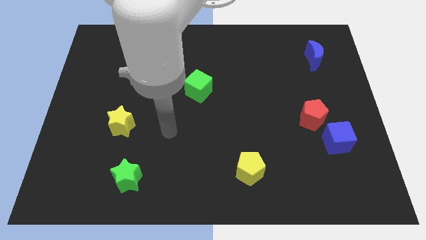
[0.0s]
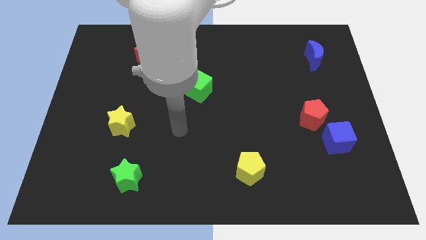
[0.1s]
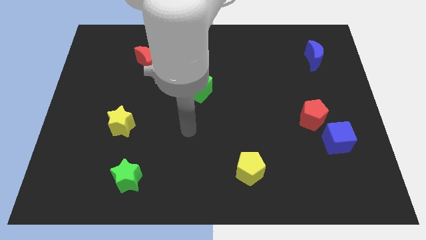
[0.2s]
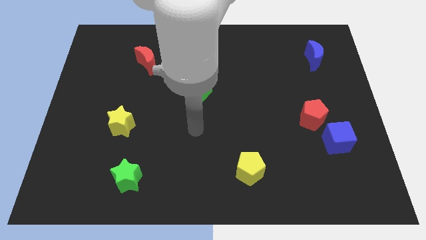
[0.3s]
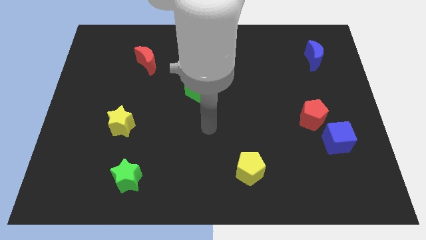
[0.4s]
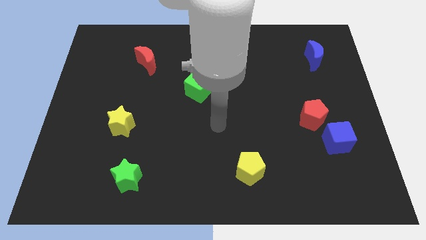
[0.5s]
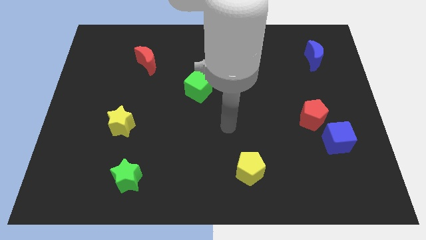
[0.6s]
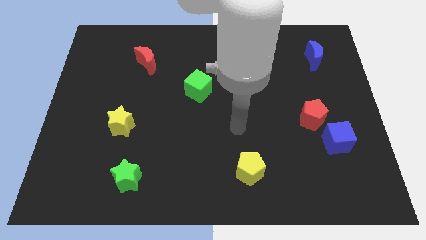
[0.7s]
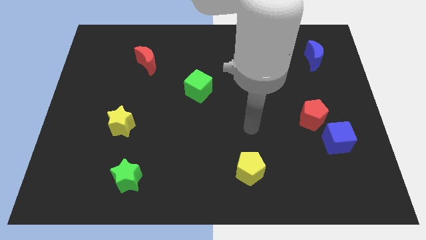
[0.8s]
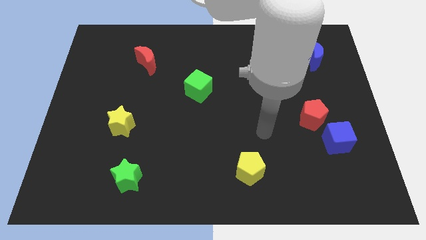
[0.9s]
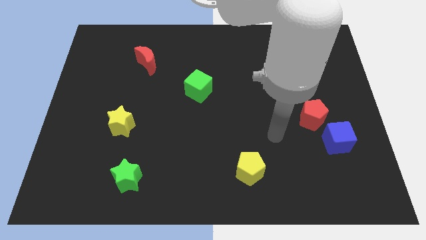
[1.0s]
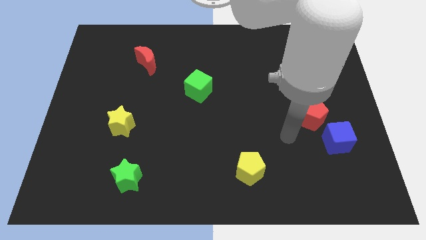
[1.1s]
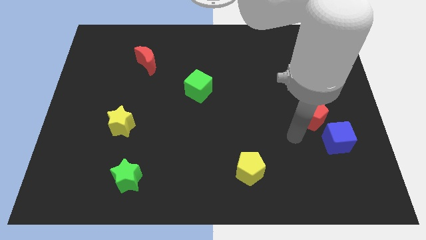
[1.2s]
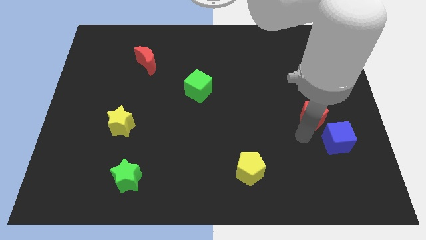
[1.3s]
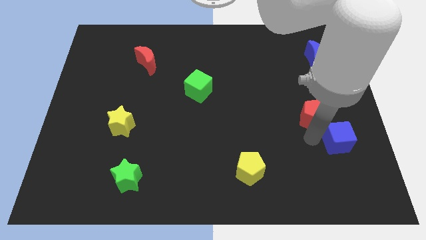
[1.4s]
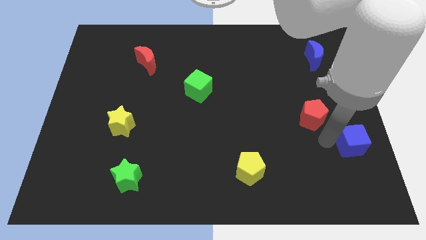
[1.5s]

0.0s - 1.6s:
pull the red pentagon apart from the blue cube

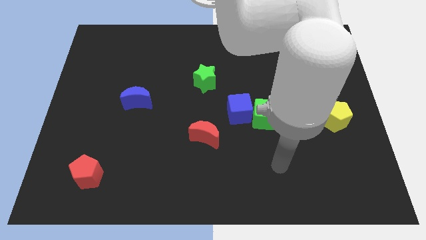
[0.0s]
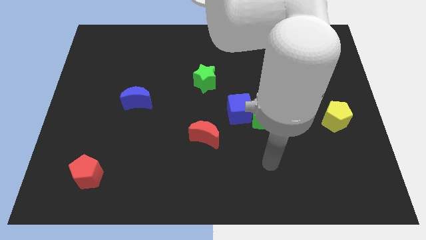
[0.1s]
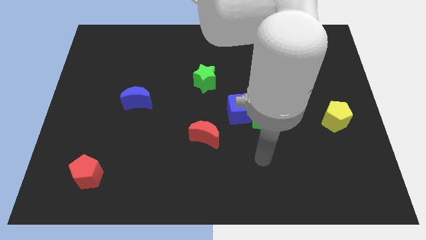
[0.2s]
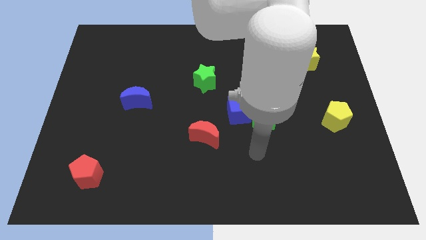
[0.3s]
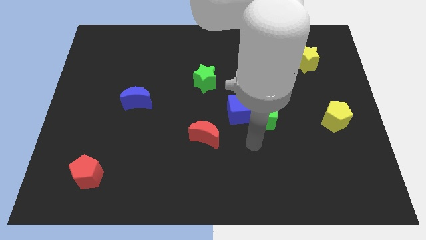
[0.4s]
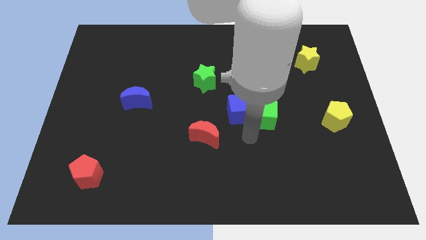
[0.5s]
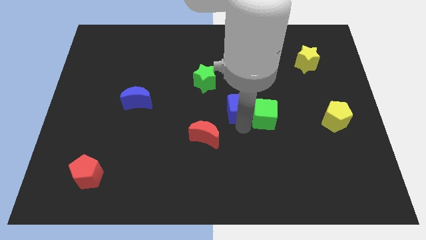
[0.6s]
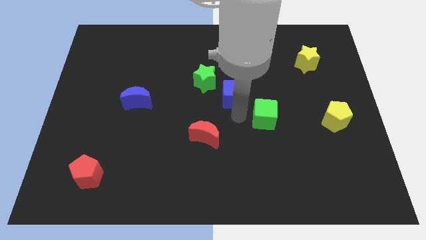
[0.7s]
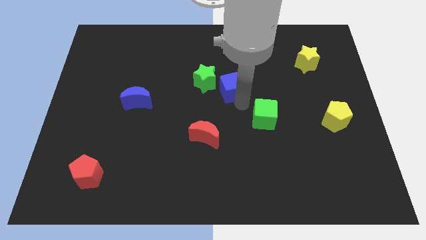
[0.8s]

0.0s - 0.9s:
separate the green cube from the blue cube

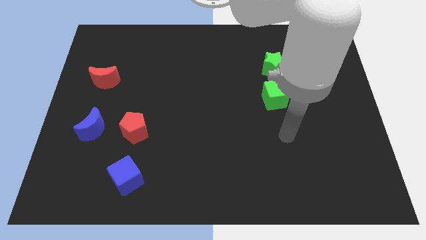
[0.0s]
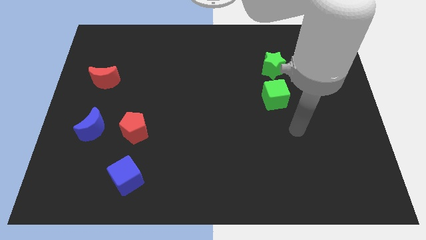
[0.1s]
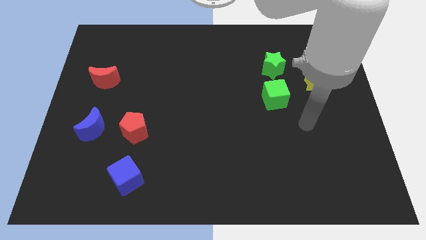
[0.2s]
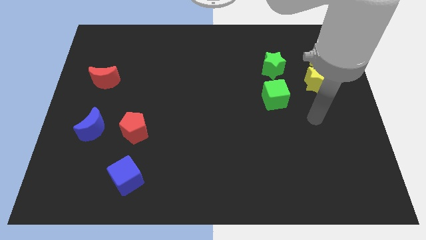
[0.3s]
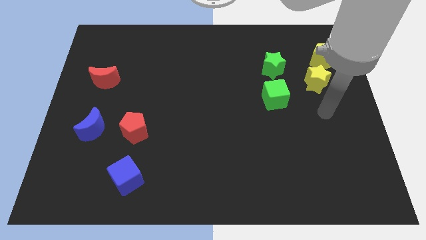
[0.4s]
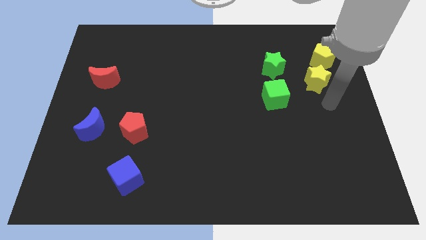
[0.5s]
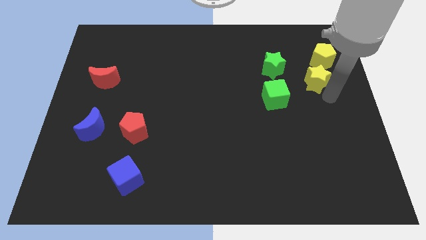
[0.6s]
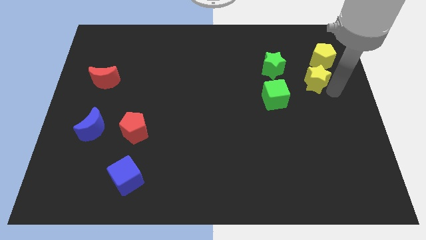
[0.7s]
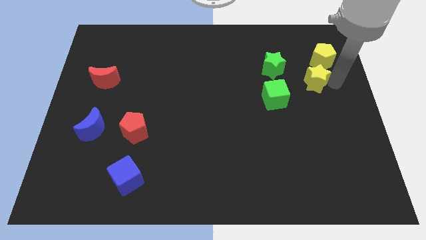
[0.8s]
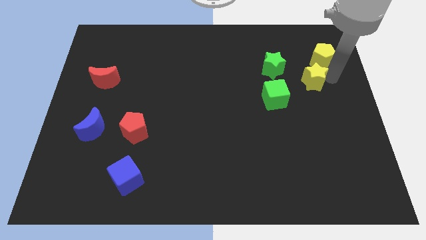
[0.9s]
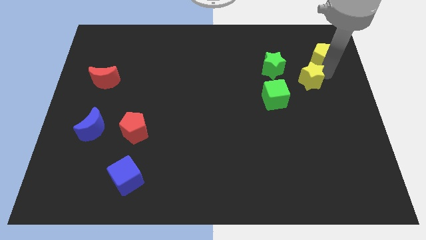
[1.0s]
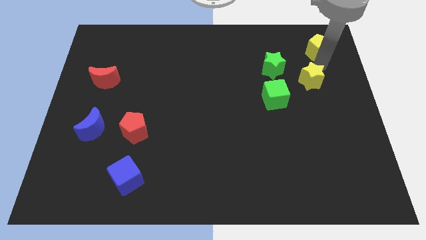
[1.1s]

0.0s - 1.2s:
move the yellow star away from the yellow pentagon

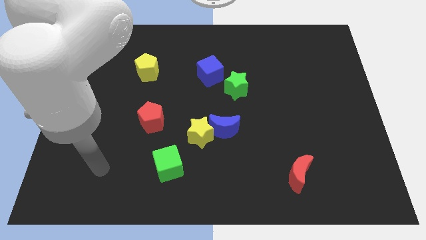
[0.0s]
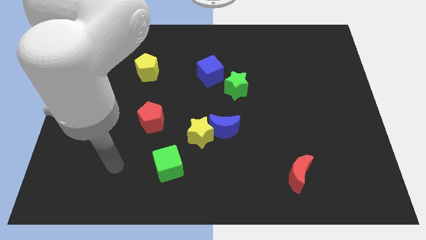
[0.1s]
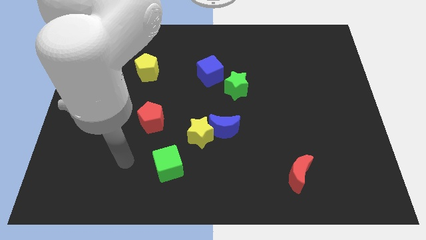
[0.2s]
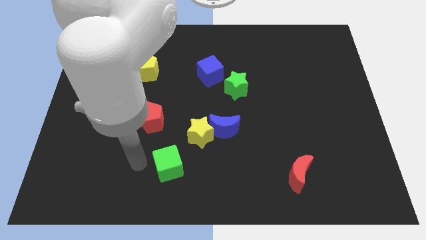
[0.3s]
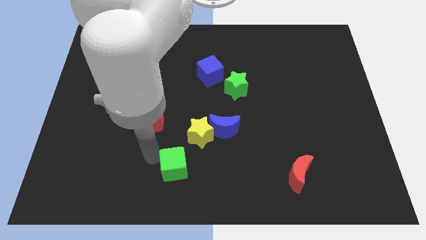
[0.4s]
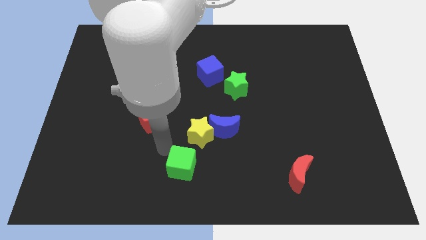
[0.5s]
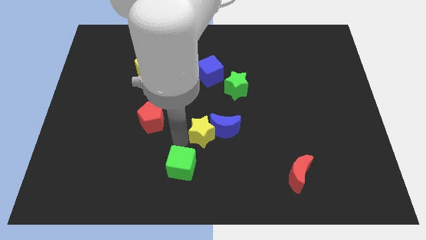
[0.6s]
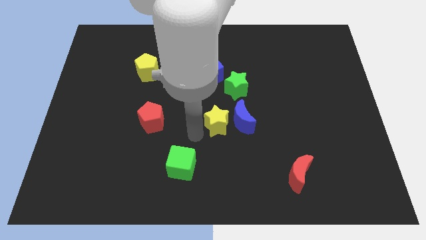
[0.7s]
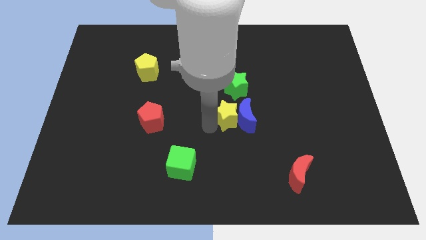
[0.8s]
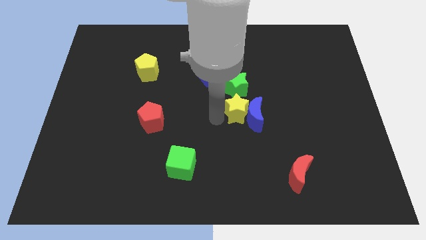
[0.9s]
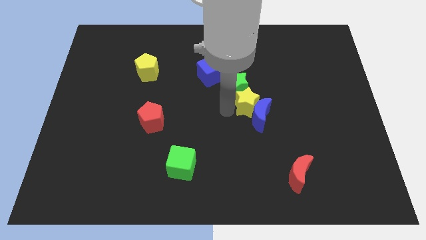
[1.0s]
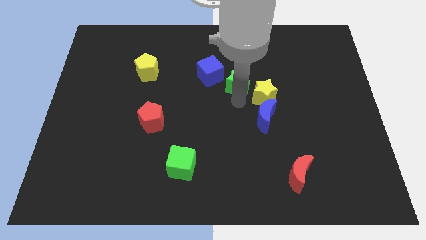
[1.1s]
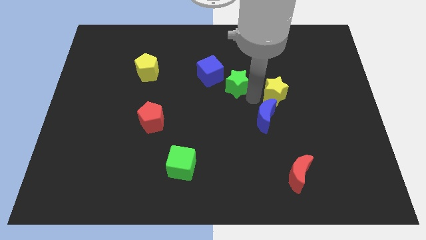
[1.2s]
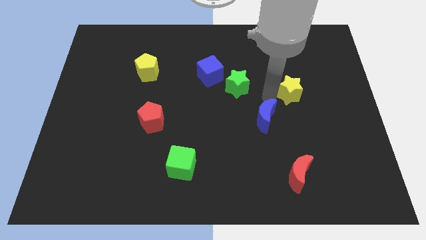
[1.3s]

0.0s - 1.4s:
pull the blue moon apart from the yellow star

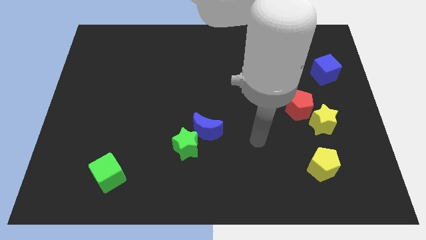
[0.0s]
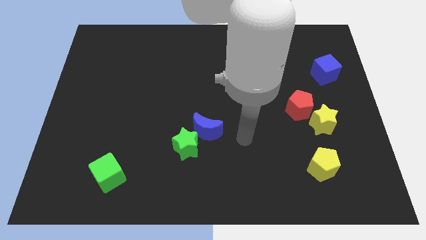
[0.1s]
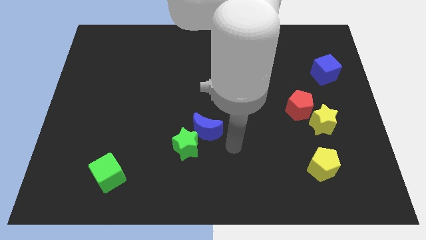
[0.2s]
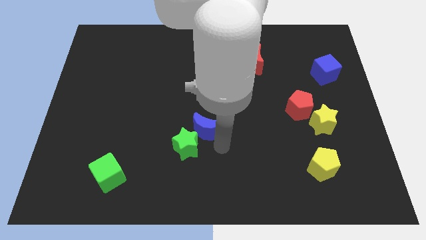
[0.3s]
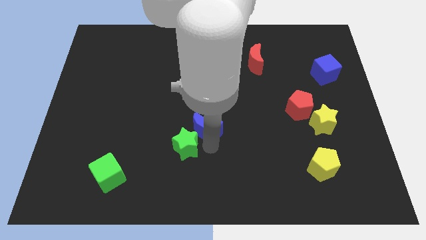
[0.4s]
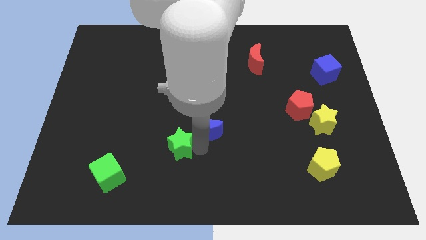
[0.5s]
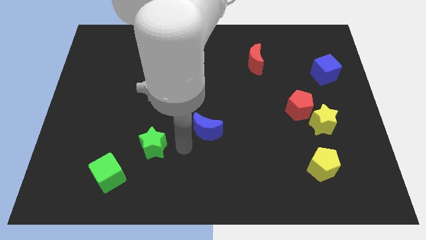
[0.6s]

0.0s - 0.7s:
move the blue moon away from the green star

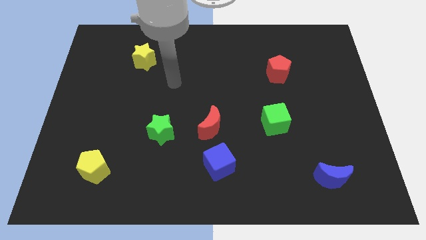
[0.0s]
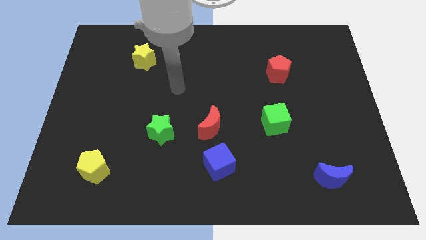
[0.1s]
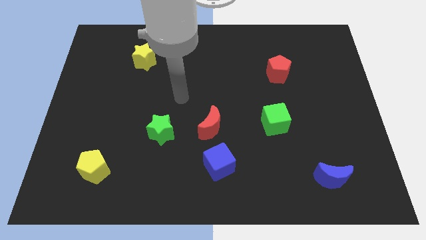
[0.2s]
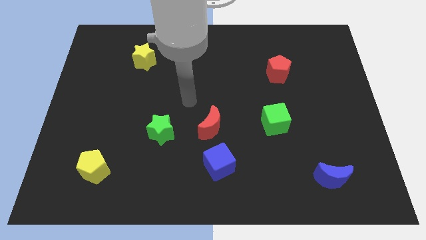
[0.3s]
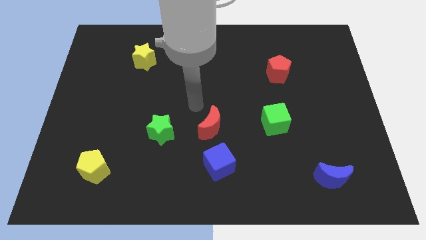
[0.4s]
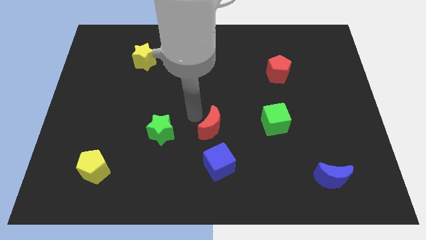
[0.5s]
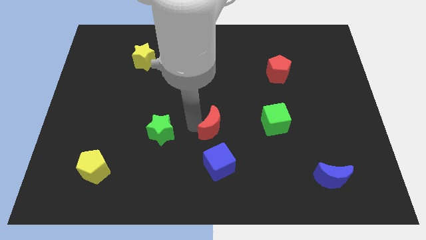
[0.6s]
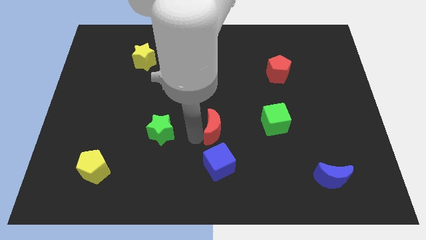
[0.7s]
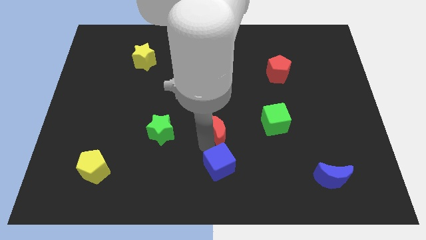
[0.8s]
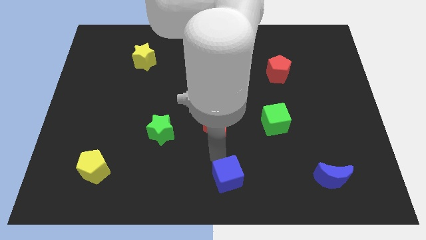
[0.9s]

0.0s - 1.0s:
pull the red moon apart from the blue cube

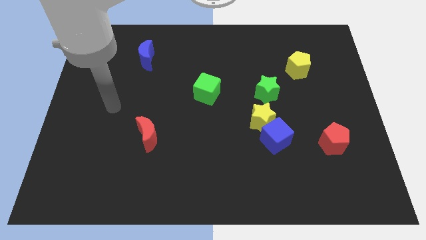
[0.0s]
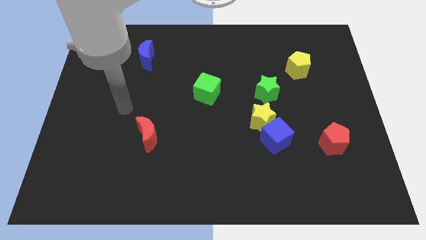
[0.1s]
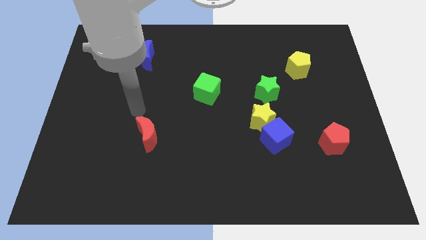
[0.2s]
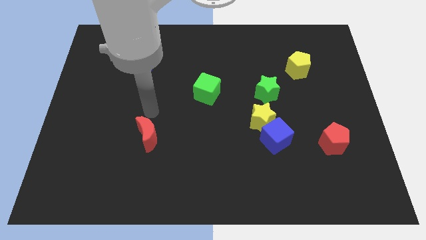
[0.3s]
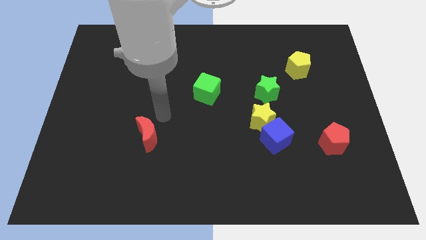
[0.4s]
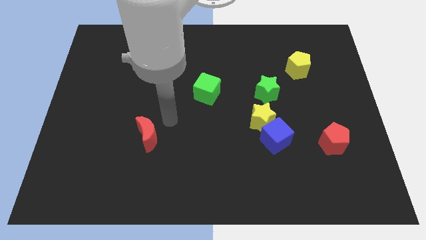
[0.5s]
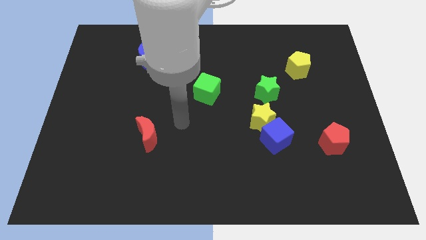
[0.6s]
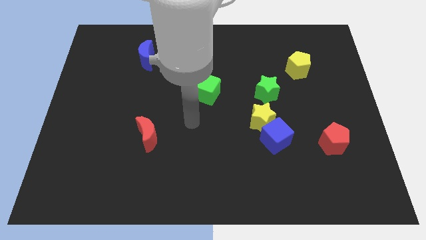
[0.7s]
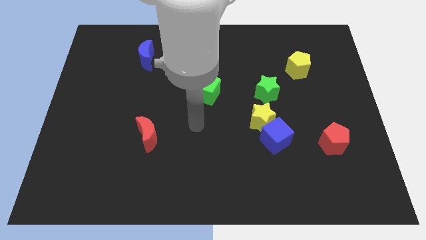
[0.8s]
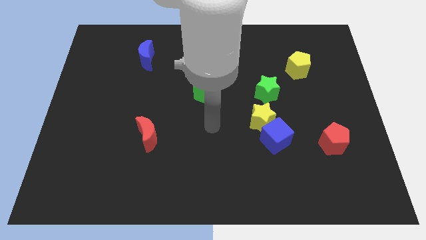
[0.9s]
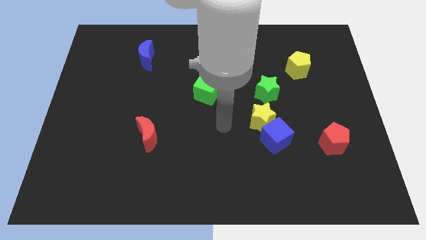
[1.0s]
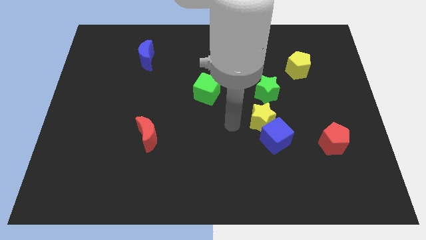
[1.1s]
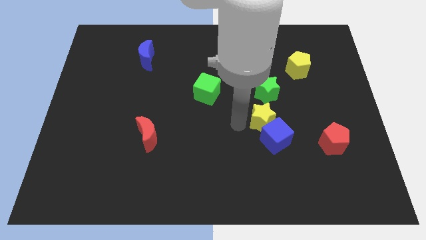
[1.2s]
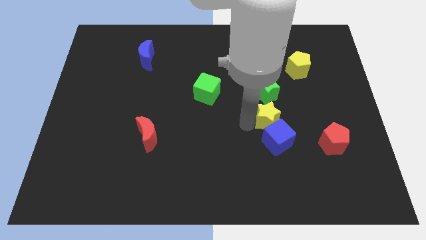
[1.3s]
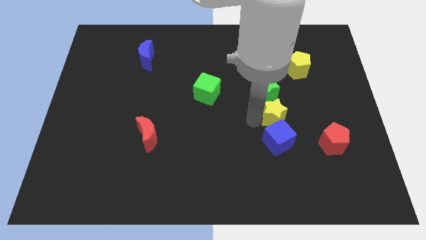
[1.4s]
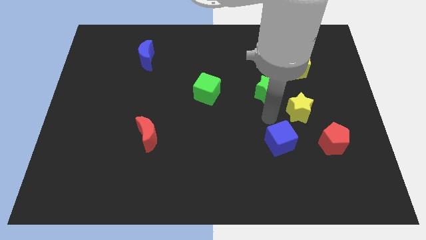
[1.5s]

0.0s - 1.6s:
pull the blue cube apart from the yellow star

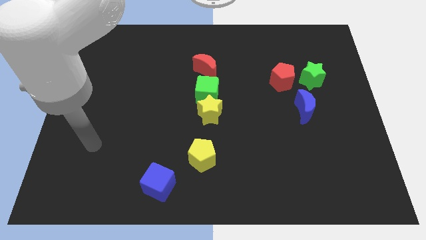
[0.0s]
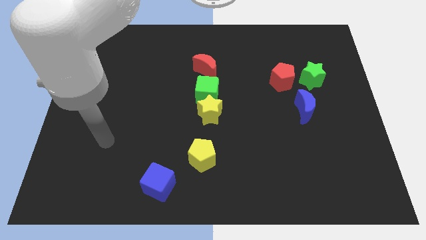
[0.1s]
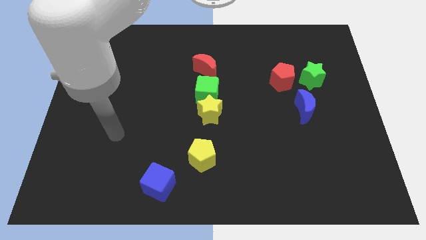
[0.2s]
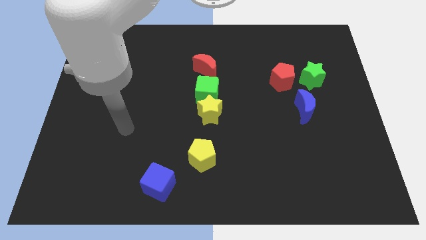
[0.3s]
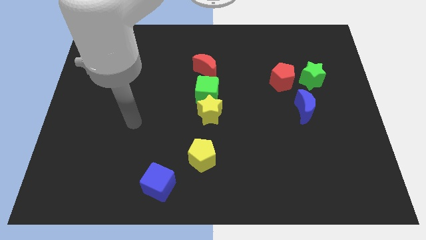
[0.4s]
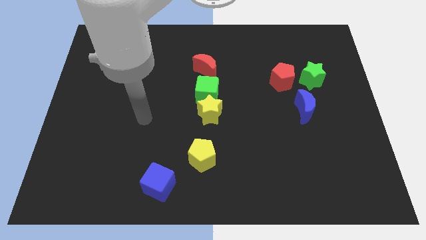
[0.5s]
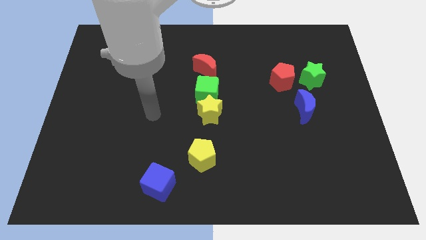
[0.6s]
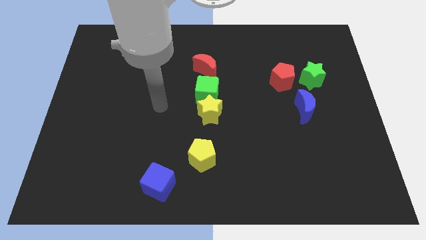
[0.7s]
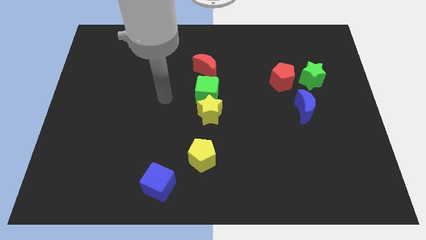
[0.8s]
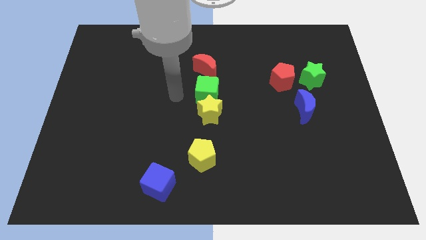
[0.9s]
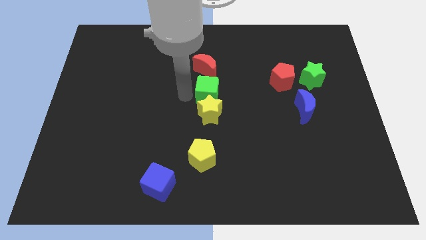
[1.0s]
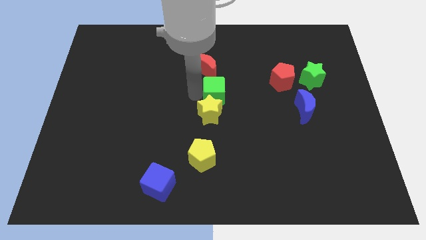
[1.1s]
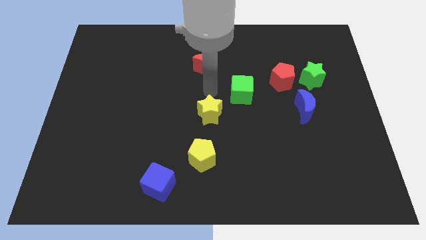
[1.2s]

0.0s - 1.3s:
separate the yellow star from the green cube
